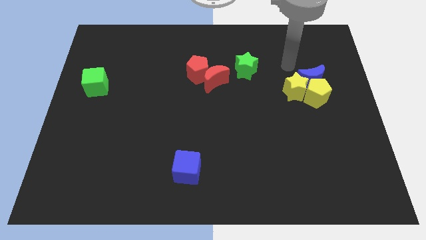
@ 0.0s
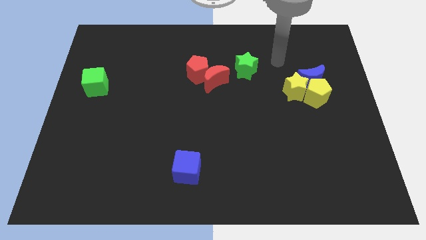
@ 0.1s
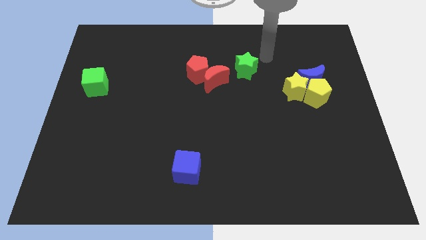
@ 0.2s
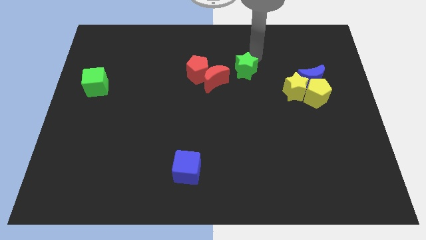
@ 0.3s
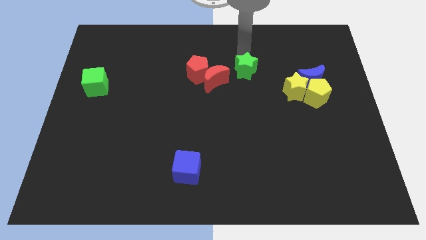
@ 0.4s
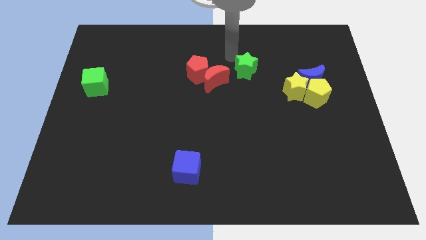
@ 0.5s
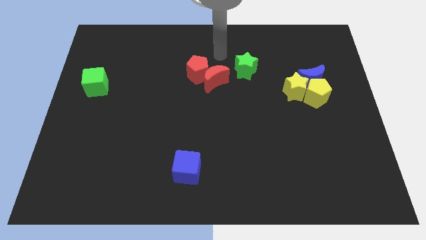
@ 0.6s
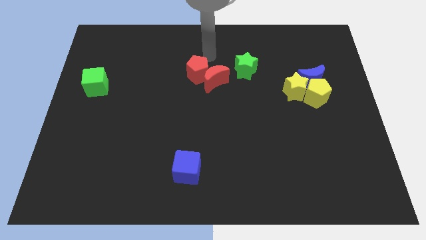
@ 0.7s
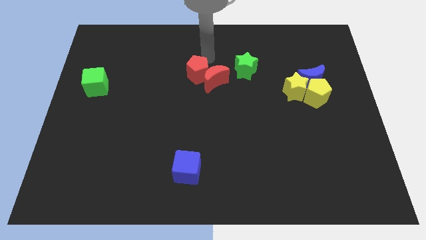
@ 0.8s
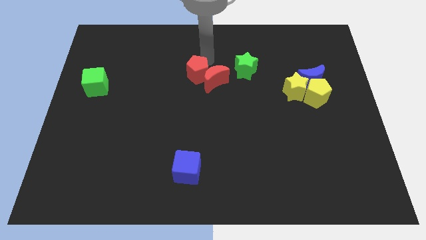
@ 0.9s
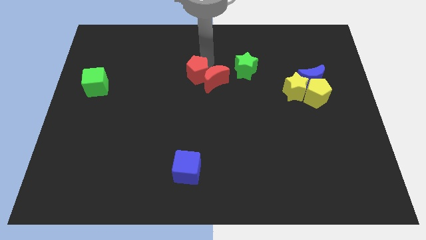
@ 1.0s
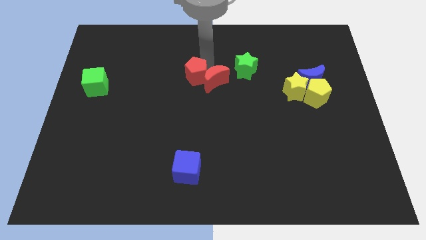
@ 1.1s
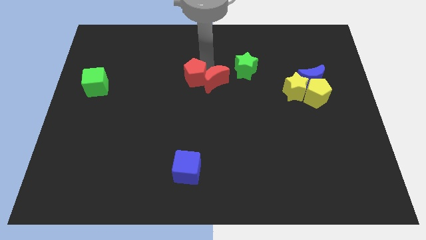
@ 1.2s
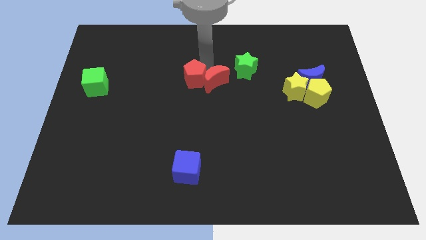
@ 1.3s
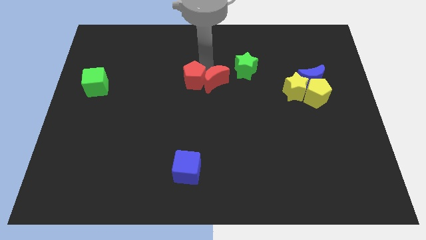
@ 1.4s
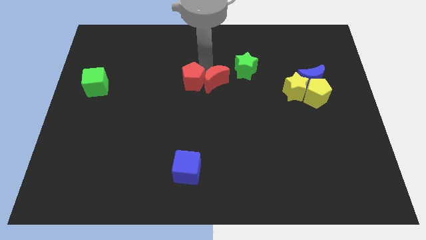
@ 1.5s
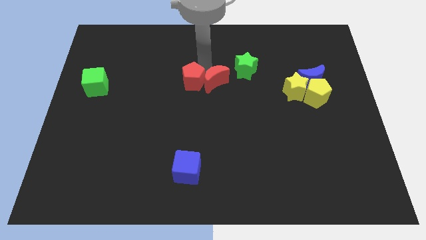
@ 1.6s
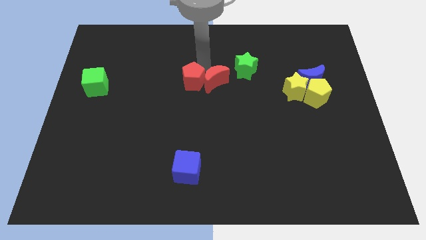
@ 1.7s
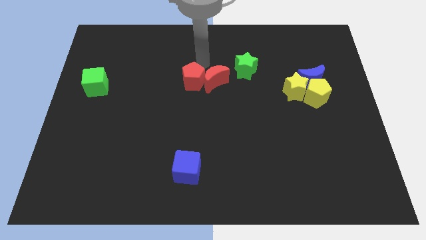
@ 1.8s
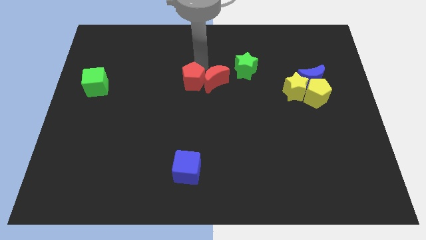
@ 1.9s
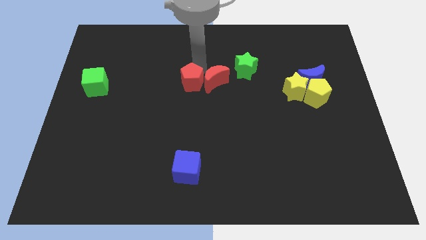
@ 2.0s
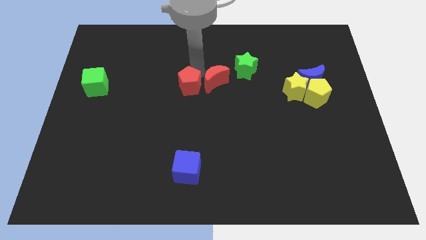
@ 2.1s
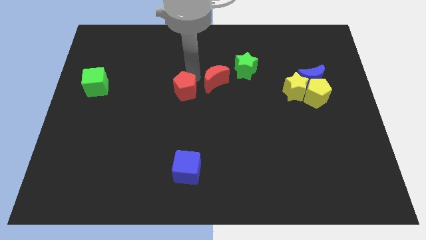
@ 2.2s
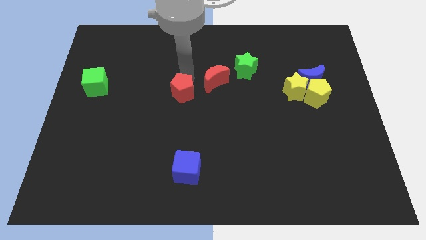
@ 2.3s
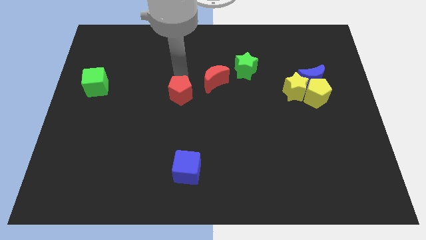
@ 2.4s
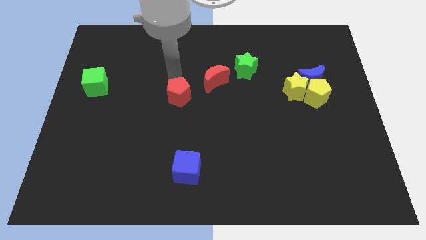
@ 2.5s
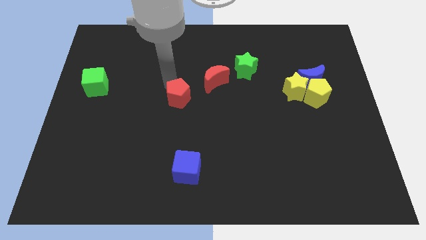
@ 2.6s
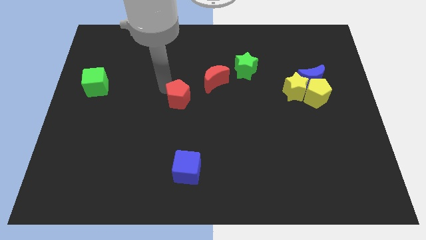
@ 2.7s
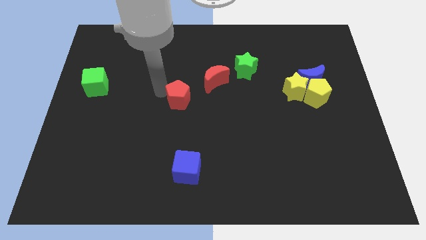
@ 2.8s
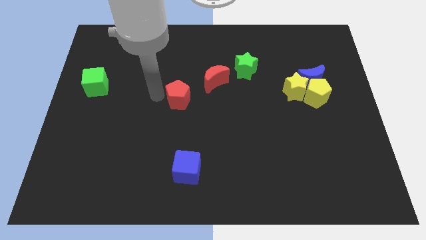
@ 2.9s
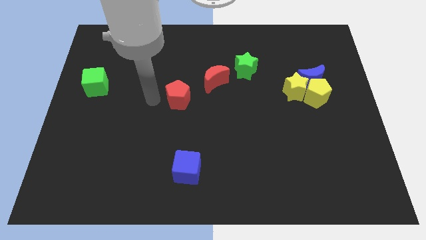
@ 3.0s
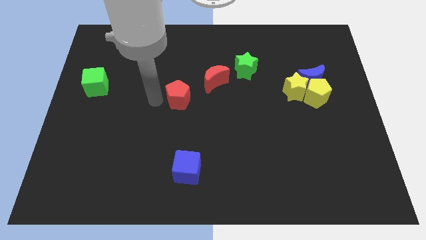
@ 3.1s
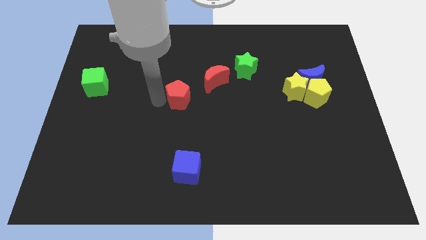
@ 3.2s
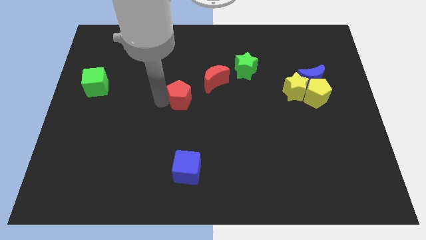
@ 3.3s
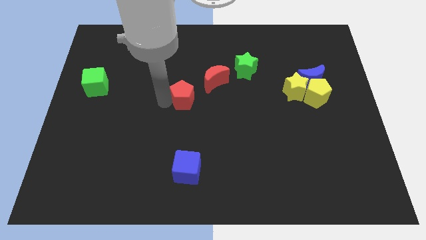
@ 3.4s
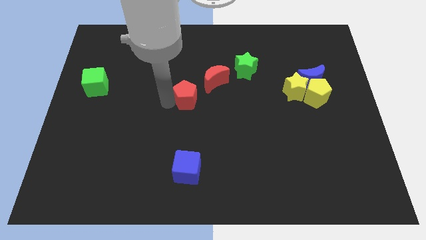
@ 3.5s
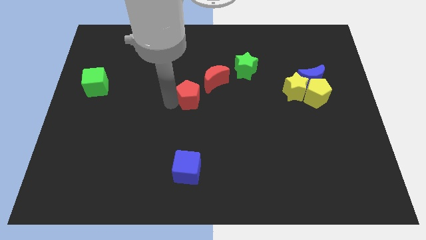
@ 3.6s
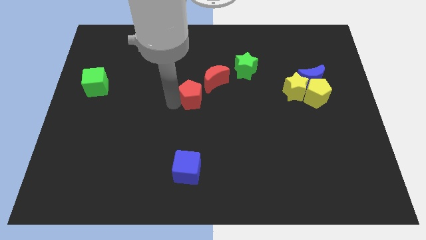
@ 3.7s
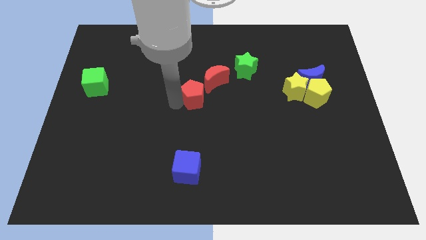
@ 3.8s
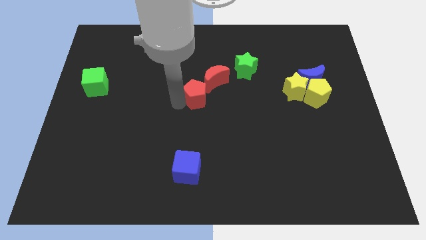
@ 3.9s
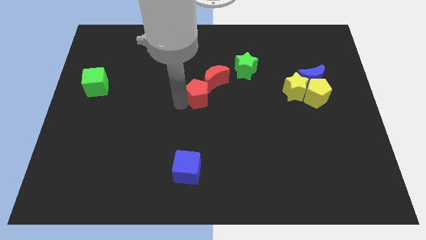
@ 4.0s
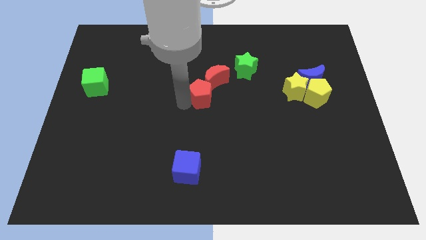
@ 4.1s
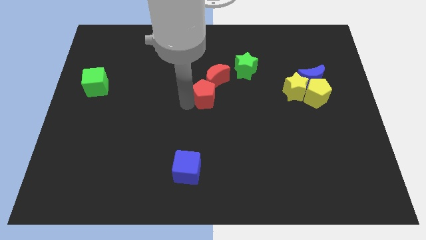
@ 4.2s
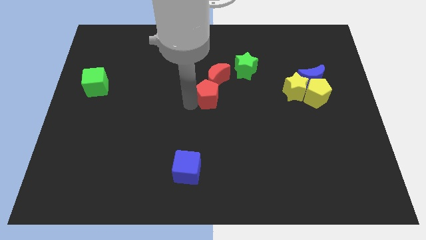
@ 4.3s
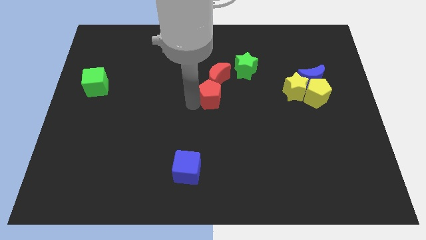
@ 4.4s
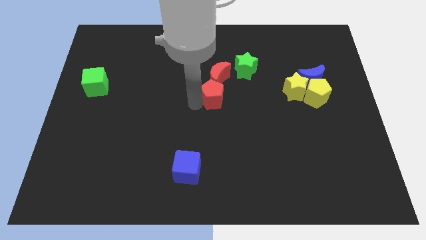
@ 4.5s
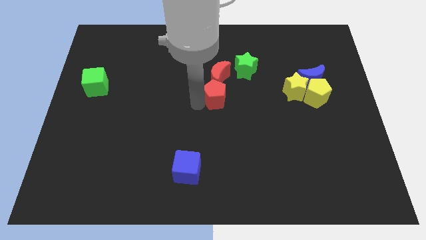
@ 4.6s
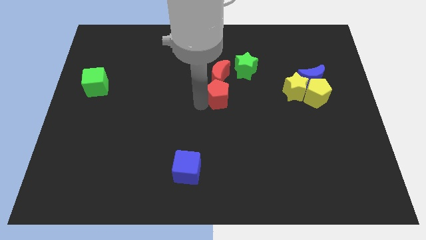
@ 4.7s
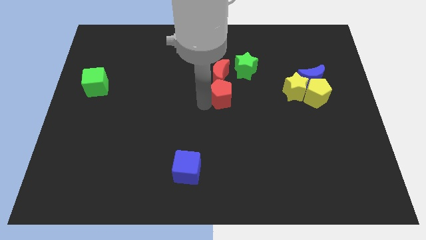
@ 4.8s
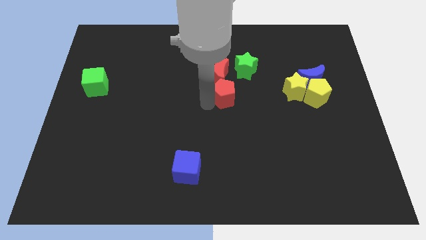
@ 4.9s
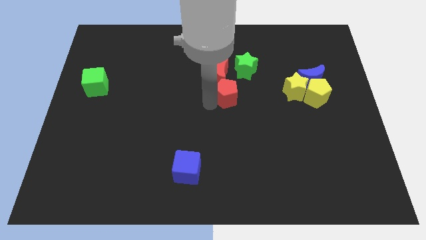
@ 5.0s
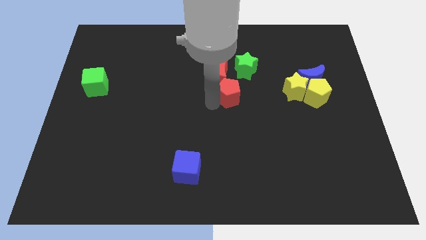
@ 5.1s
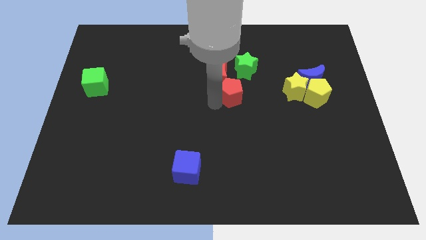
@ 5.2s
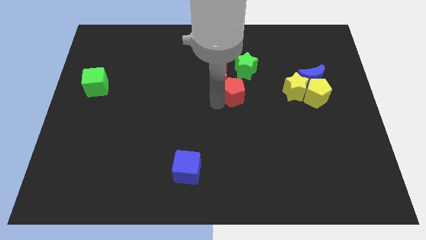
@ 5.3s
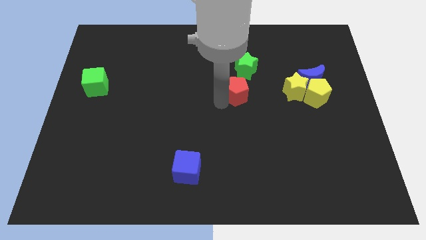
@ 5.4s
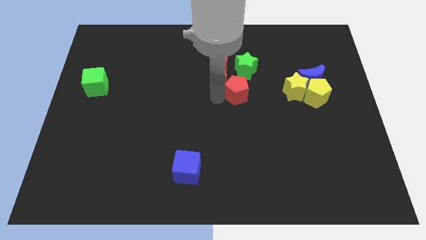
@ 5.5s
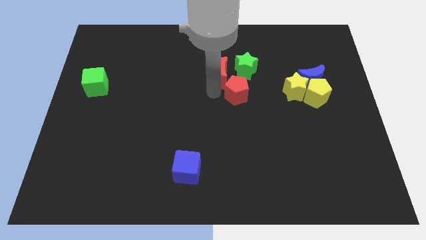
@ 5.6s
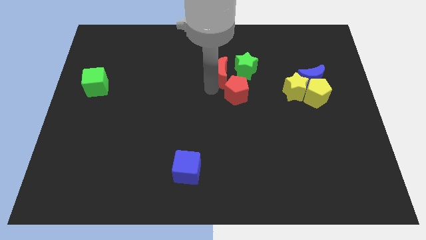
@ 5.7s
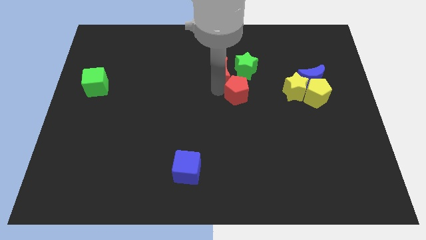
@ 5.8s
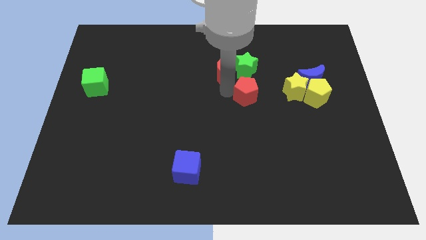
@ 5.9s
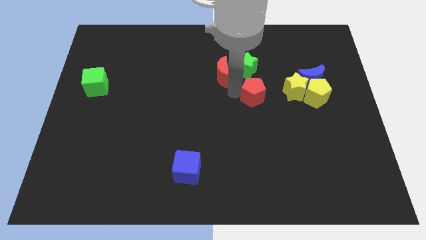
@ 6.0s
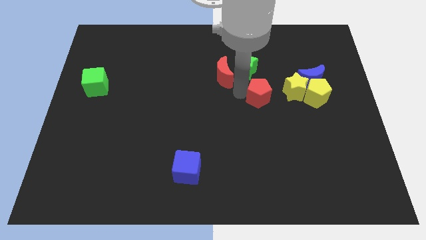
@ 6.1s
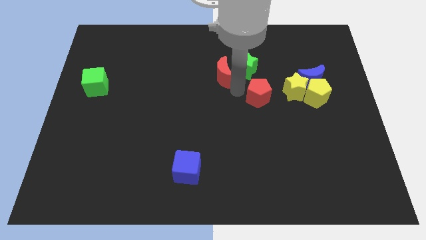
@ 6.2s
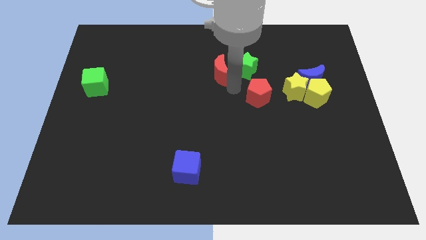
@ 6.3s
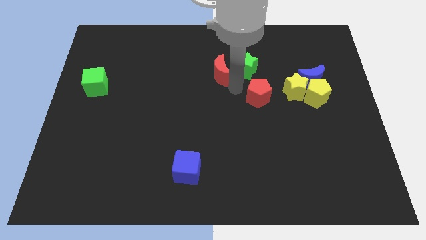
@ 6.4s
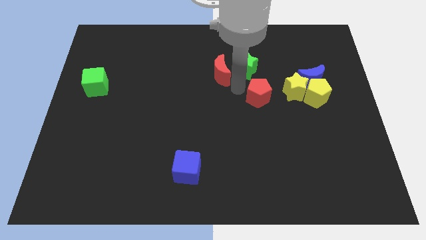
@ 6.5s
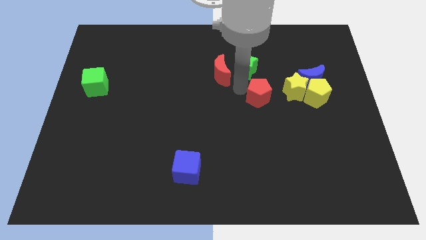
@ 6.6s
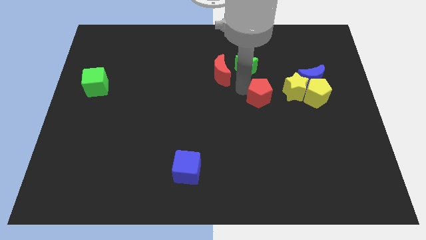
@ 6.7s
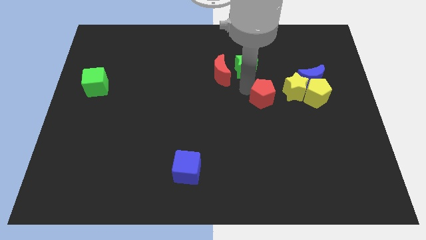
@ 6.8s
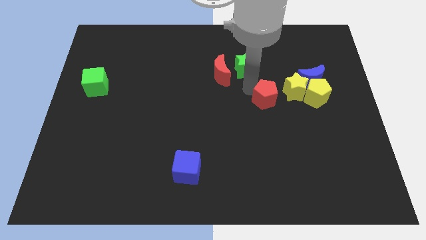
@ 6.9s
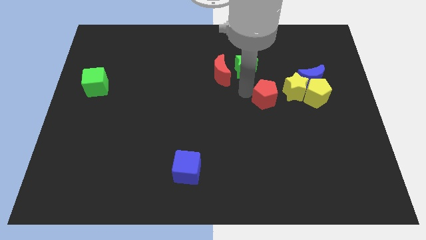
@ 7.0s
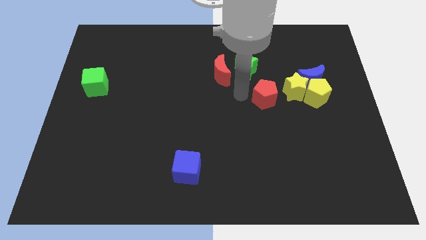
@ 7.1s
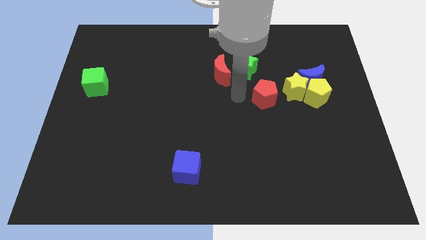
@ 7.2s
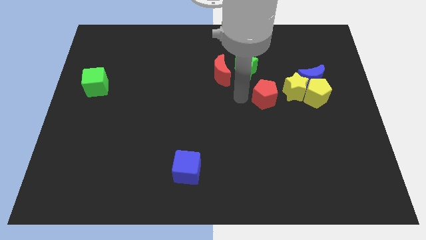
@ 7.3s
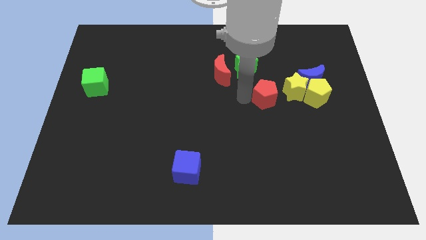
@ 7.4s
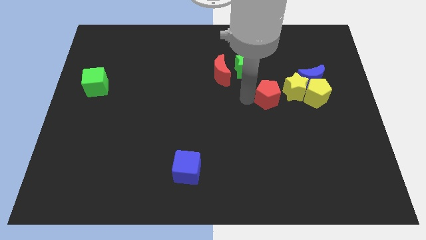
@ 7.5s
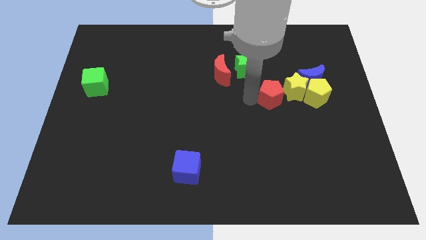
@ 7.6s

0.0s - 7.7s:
move the red pentagon diagonally down and to the left of the blue moon
